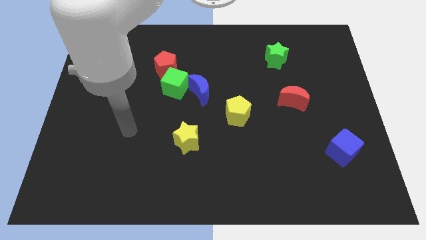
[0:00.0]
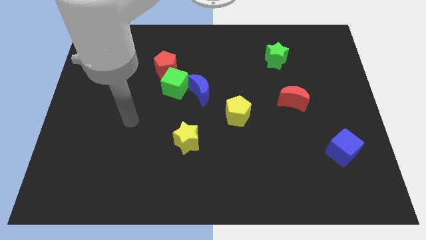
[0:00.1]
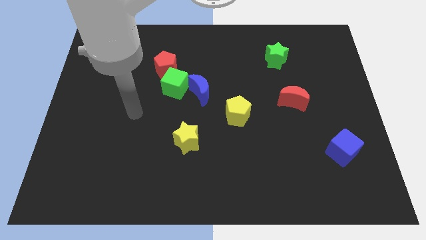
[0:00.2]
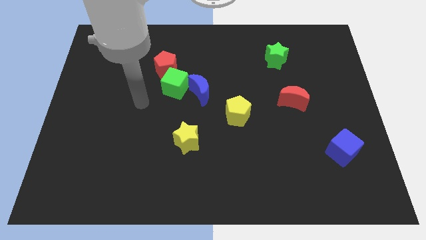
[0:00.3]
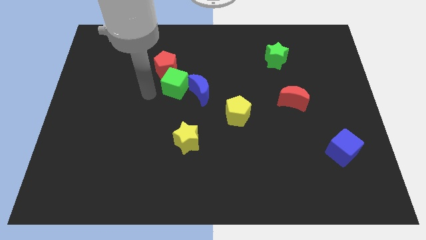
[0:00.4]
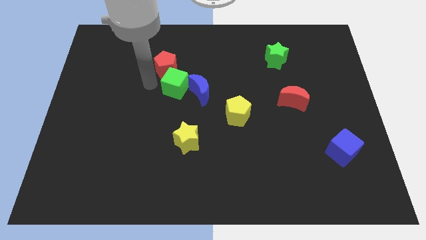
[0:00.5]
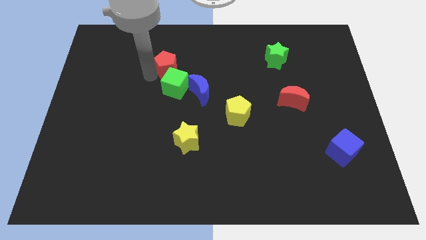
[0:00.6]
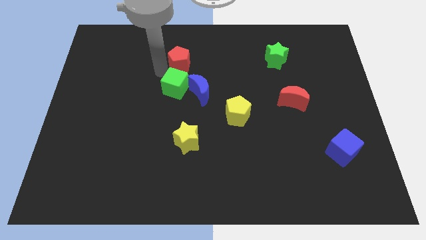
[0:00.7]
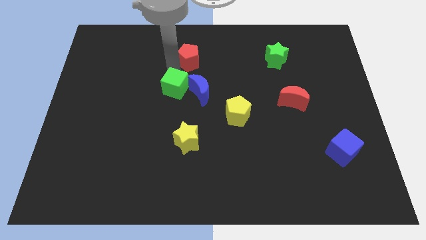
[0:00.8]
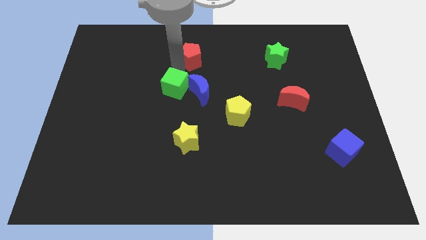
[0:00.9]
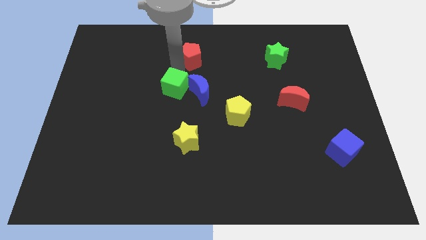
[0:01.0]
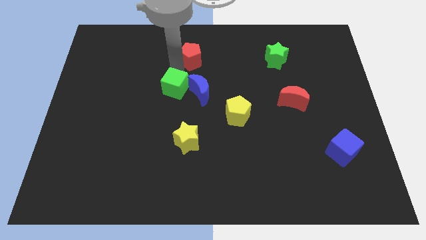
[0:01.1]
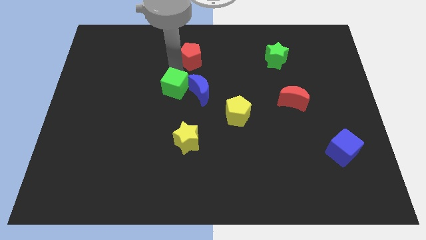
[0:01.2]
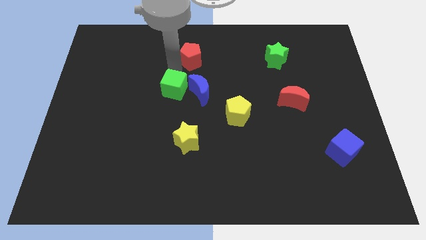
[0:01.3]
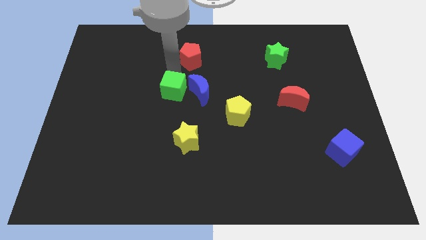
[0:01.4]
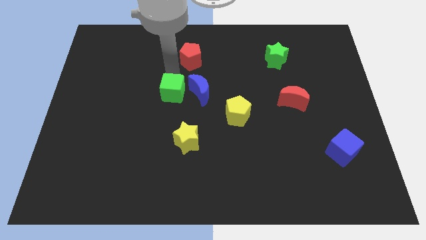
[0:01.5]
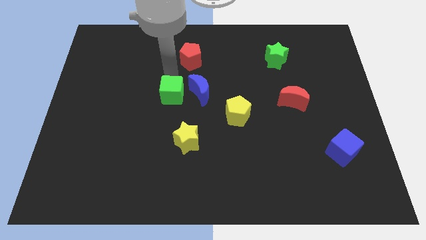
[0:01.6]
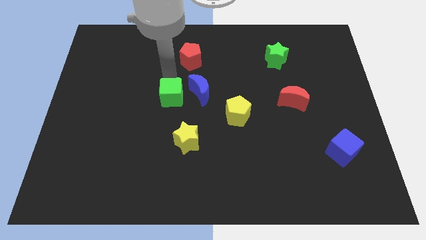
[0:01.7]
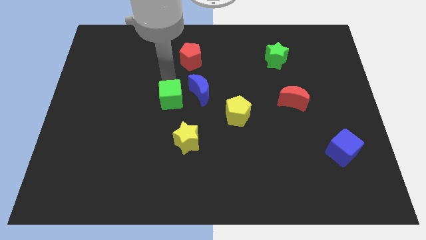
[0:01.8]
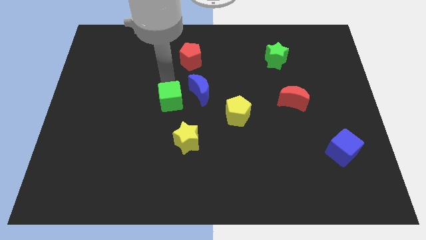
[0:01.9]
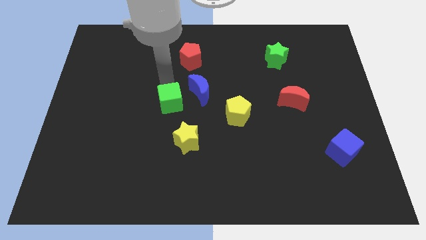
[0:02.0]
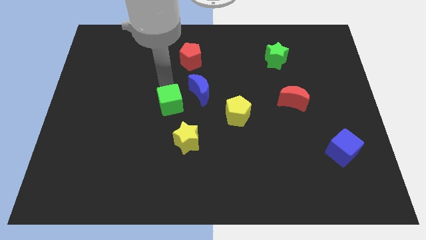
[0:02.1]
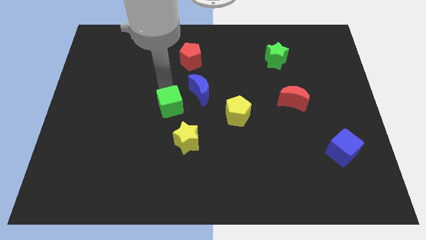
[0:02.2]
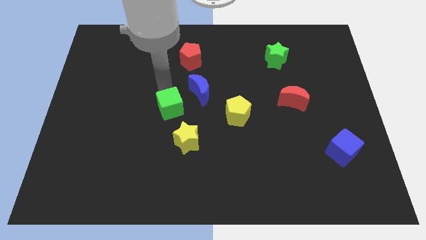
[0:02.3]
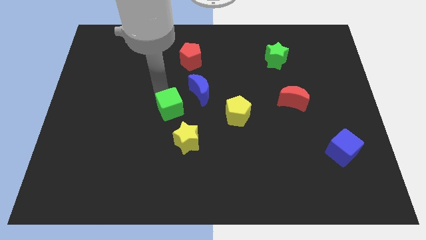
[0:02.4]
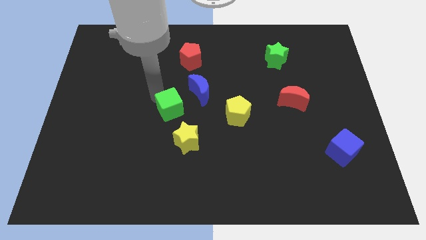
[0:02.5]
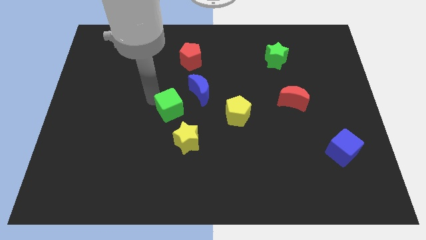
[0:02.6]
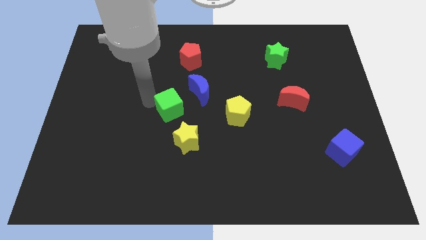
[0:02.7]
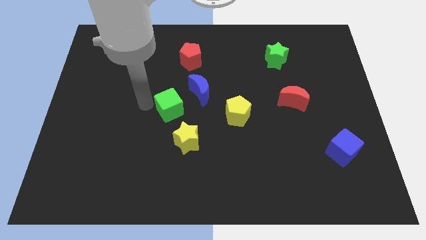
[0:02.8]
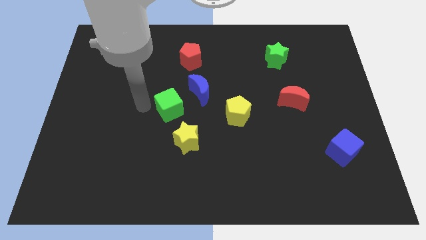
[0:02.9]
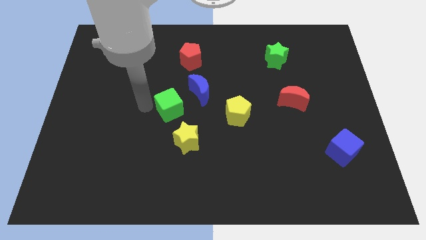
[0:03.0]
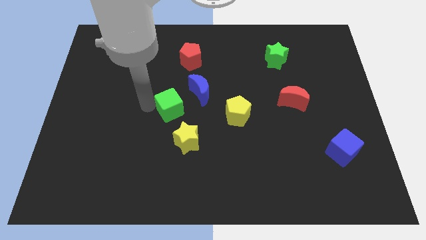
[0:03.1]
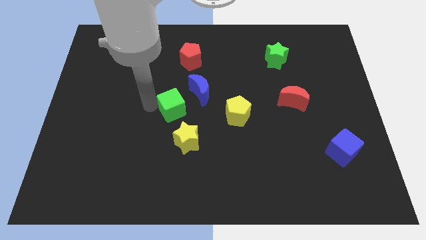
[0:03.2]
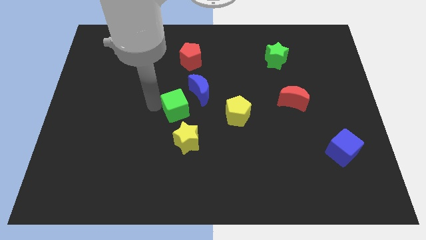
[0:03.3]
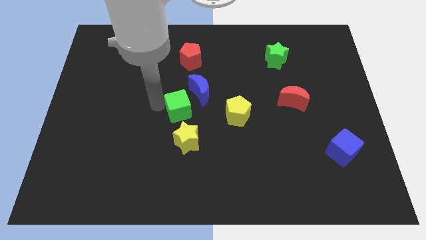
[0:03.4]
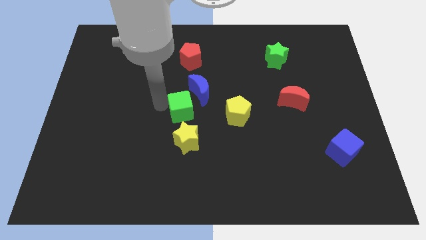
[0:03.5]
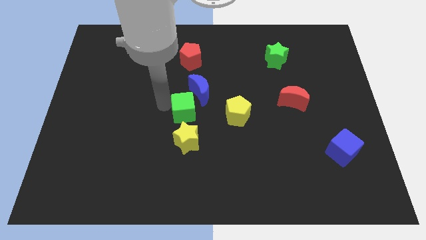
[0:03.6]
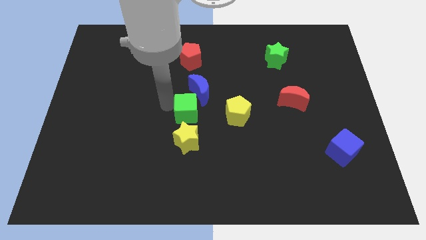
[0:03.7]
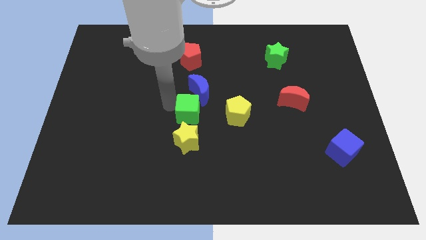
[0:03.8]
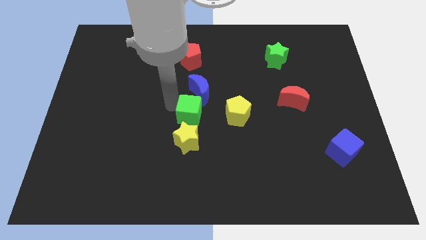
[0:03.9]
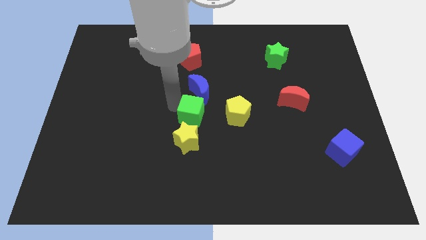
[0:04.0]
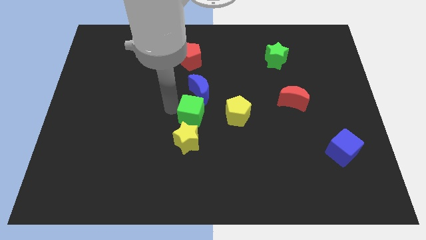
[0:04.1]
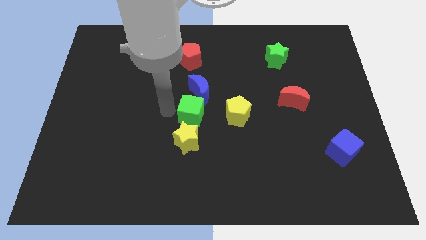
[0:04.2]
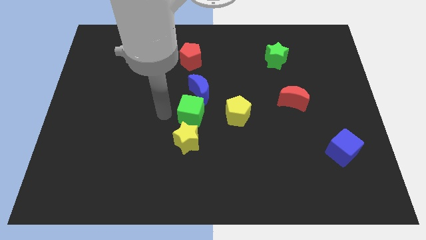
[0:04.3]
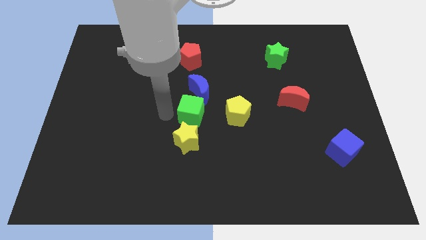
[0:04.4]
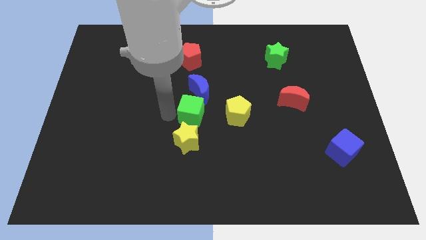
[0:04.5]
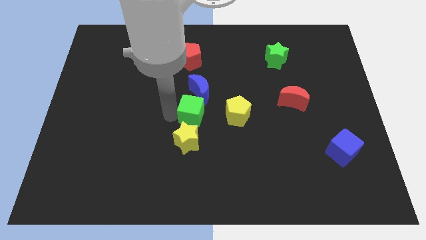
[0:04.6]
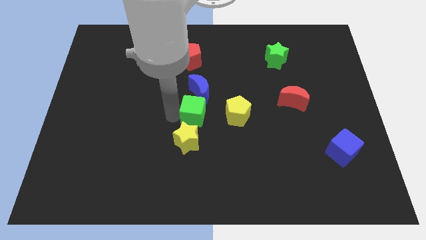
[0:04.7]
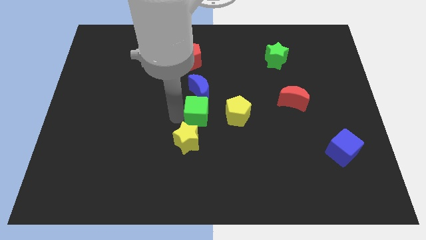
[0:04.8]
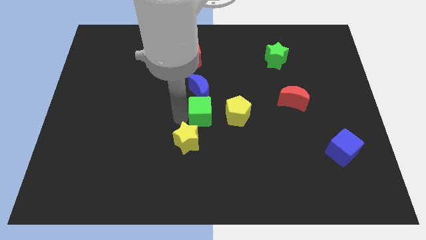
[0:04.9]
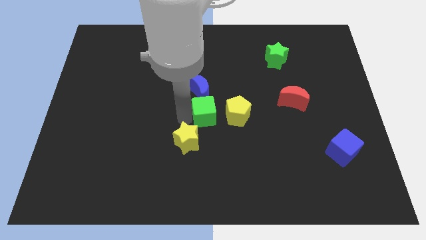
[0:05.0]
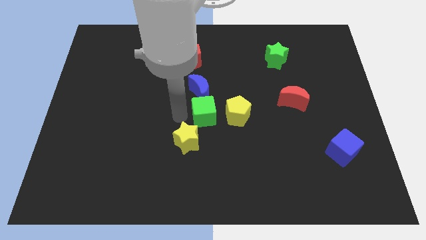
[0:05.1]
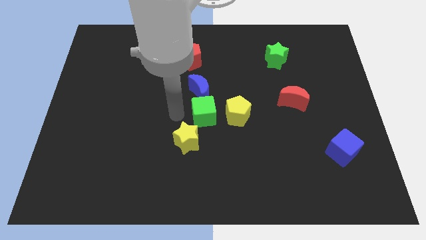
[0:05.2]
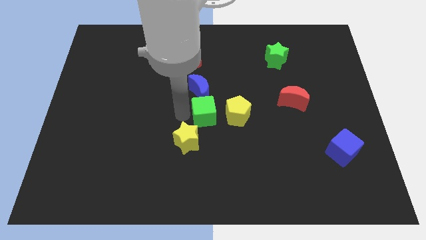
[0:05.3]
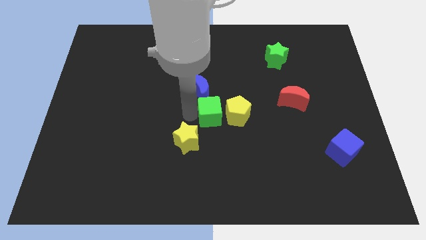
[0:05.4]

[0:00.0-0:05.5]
put the green cube close to the yellow pentagon

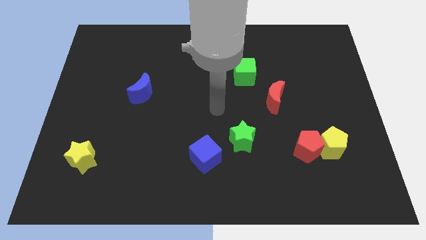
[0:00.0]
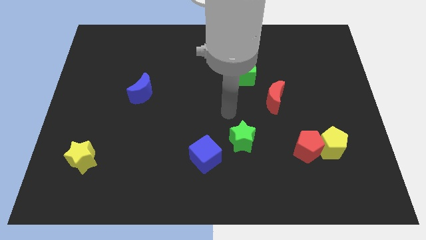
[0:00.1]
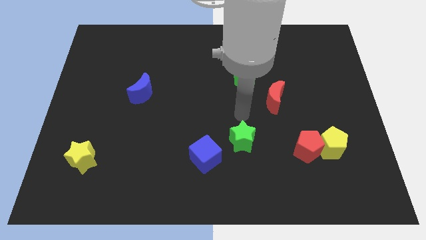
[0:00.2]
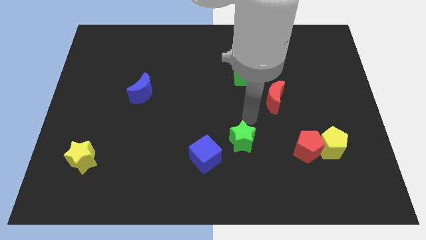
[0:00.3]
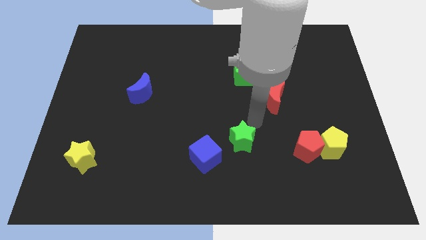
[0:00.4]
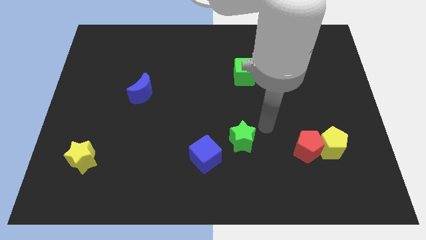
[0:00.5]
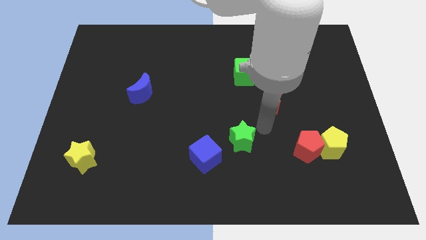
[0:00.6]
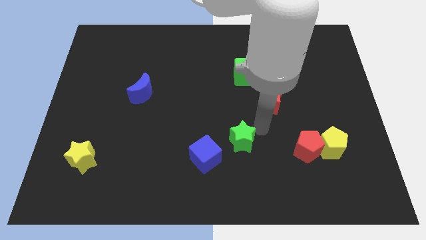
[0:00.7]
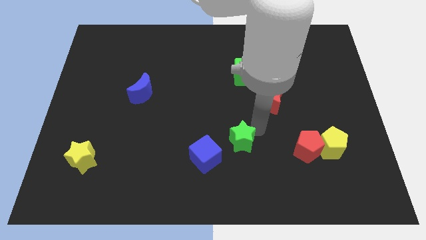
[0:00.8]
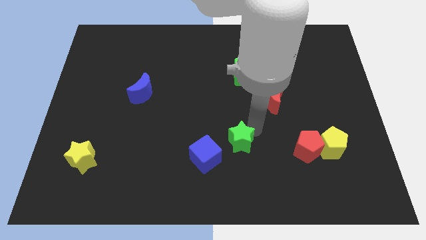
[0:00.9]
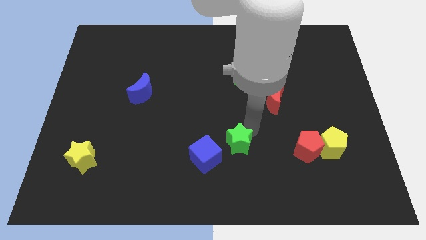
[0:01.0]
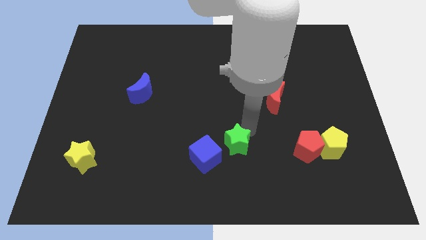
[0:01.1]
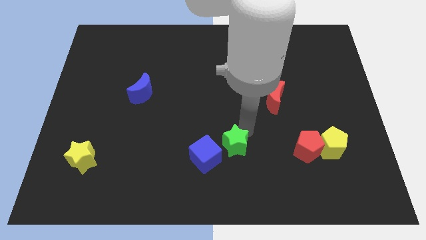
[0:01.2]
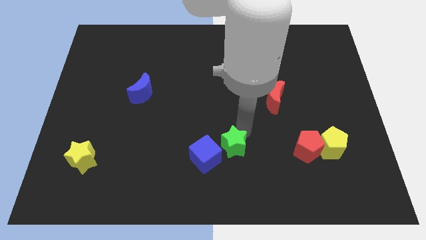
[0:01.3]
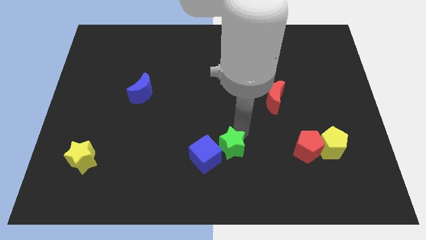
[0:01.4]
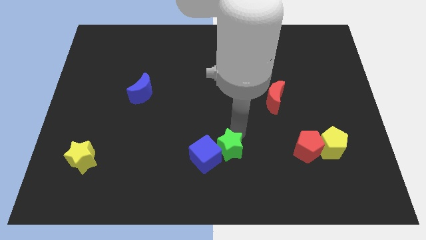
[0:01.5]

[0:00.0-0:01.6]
slide the green star next to the blue cube
